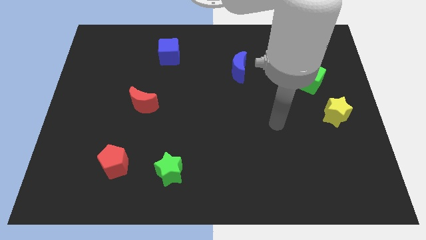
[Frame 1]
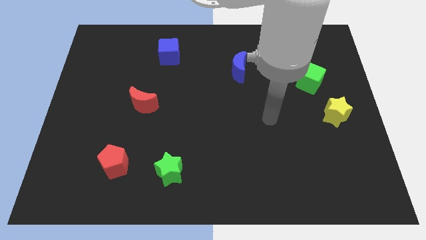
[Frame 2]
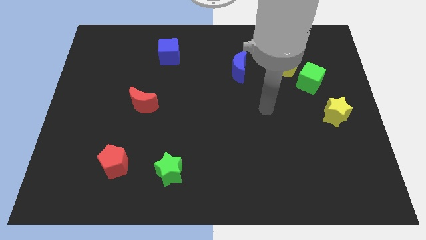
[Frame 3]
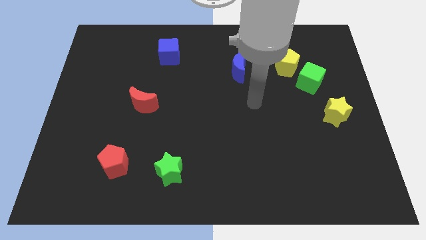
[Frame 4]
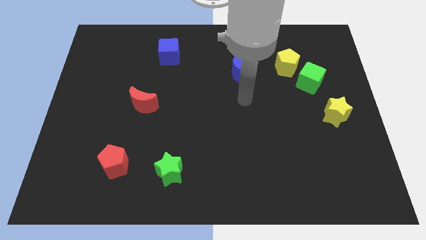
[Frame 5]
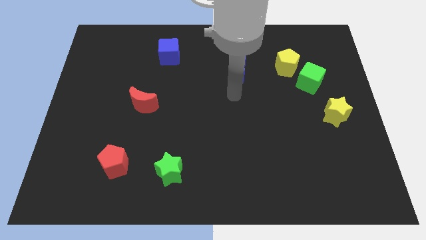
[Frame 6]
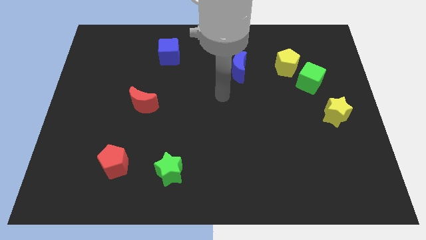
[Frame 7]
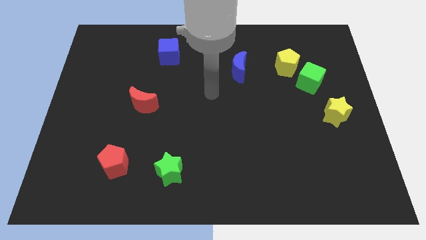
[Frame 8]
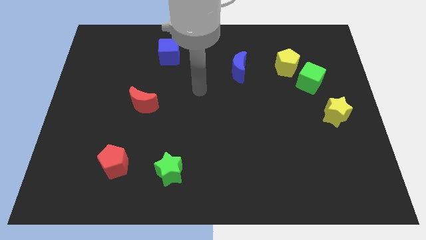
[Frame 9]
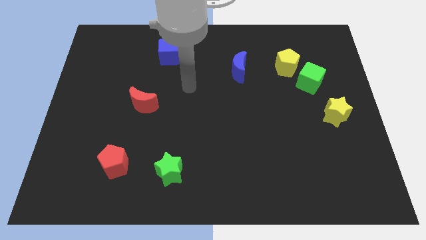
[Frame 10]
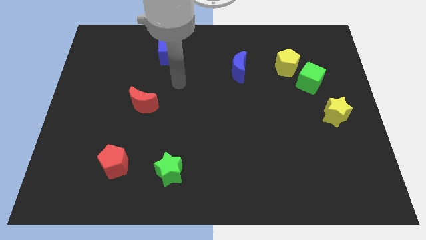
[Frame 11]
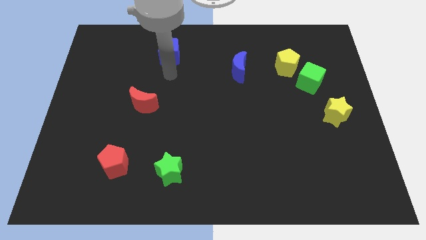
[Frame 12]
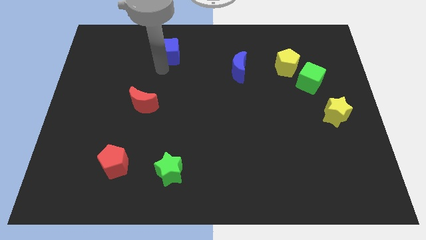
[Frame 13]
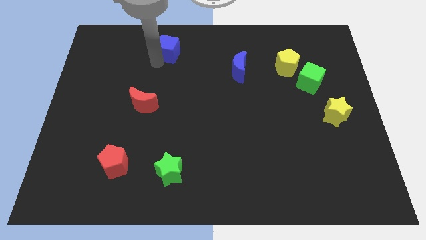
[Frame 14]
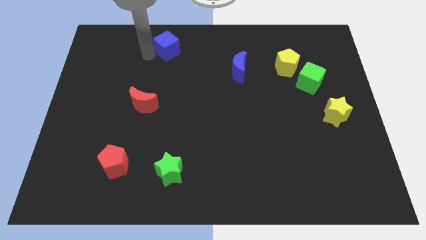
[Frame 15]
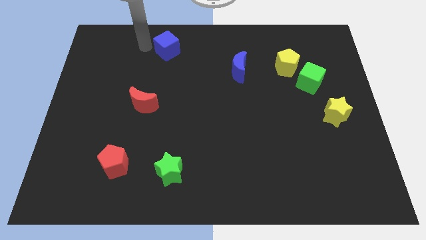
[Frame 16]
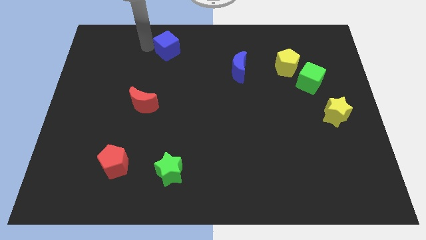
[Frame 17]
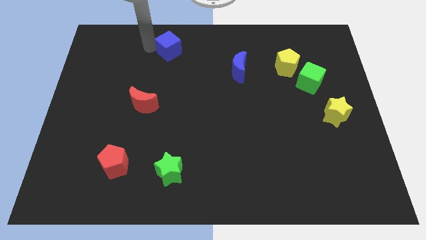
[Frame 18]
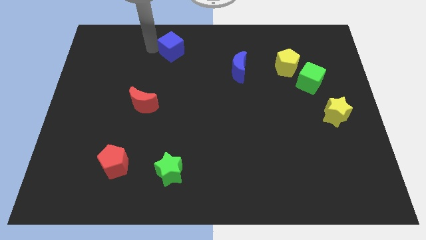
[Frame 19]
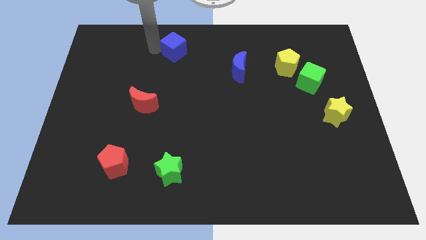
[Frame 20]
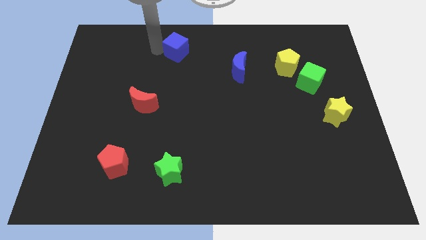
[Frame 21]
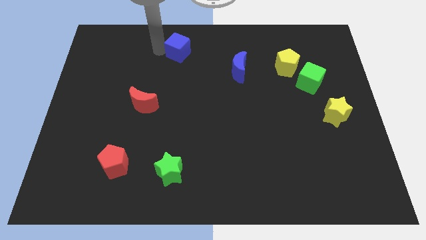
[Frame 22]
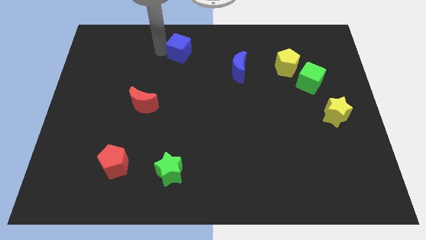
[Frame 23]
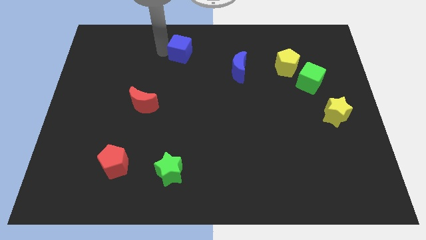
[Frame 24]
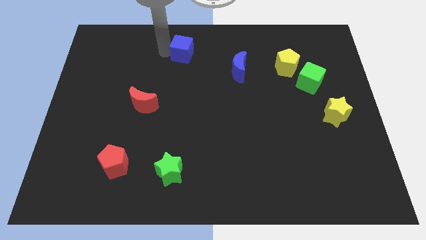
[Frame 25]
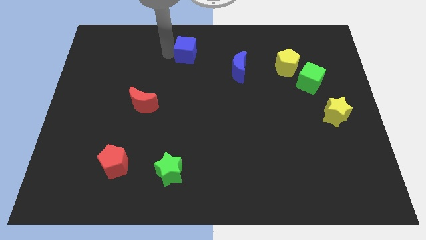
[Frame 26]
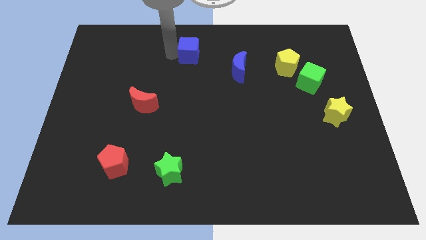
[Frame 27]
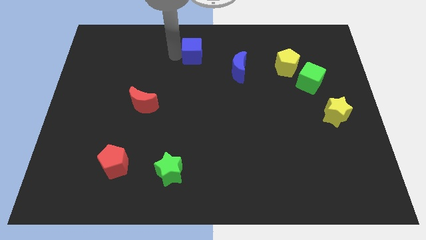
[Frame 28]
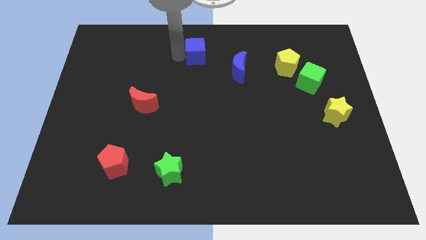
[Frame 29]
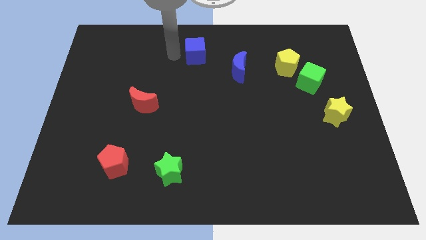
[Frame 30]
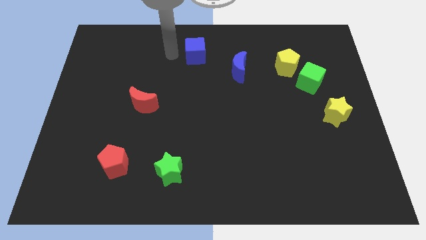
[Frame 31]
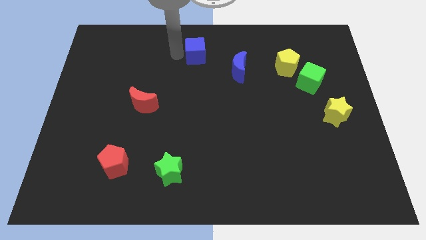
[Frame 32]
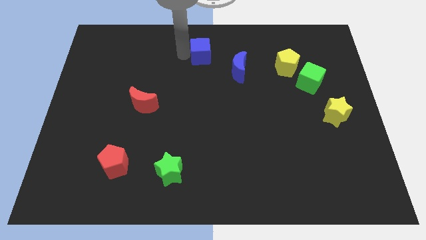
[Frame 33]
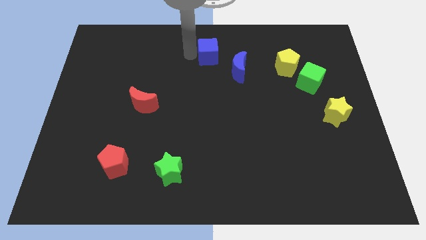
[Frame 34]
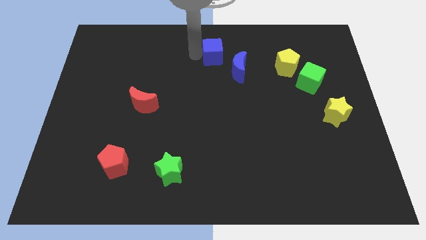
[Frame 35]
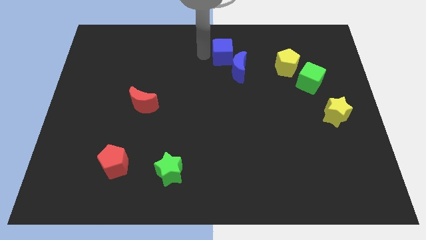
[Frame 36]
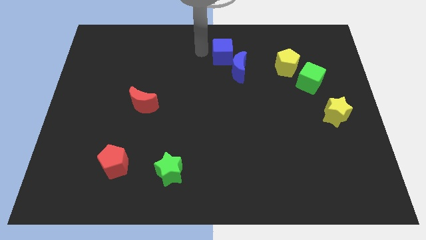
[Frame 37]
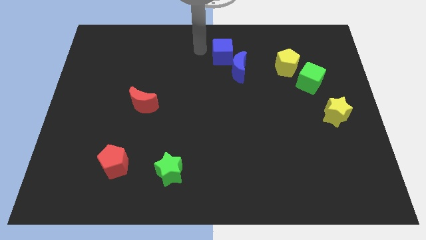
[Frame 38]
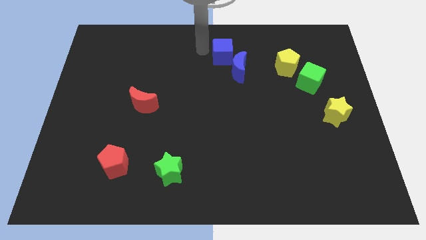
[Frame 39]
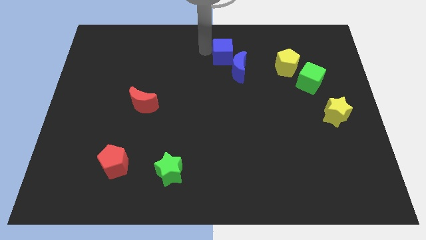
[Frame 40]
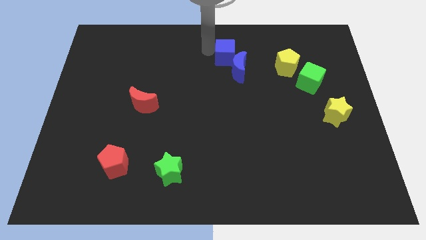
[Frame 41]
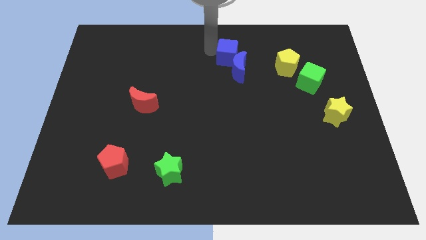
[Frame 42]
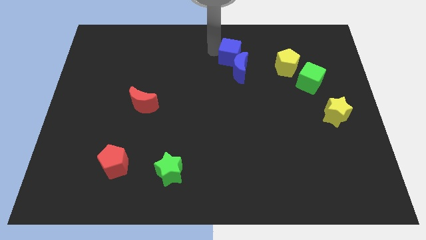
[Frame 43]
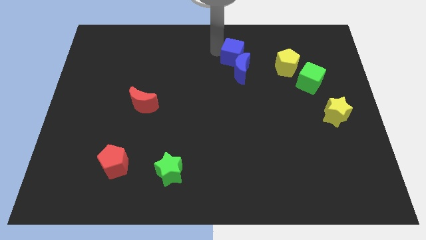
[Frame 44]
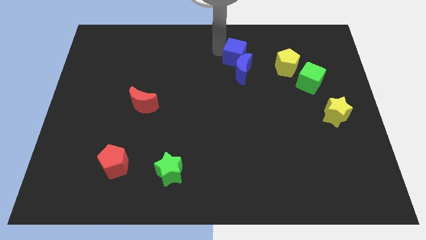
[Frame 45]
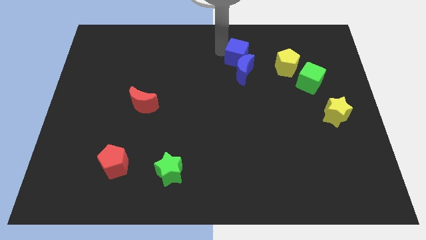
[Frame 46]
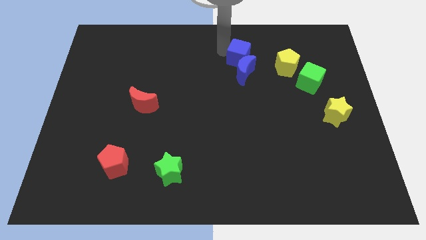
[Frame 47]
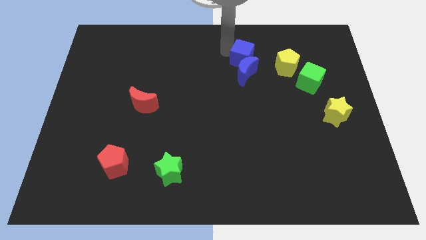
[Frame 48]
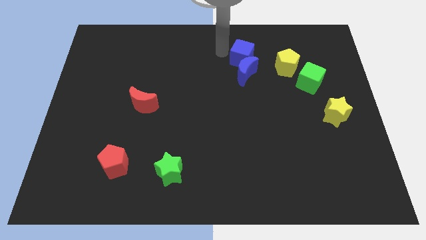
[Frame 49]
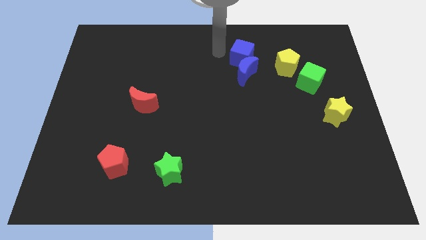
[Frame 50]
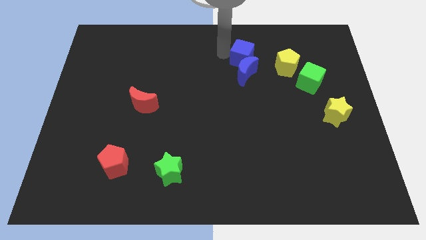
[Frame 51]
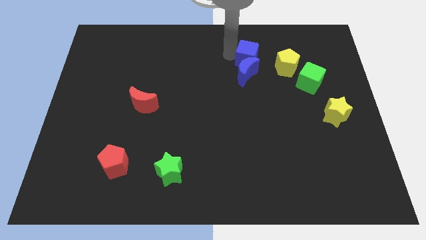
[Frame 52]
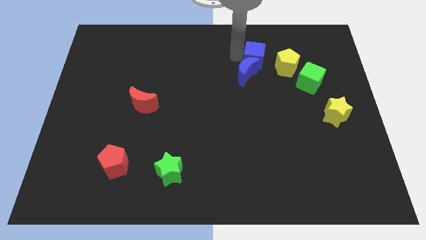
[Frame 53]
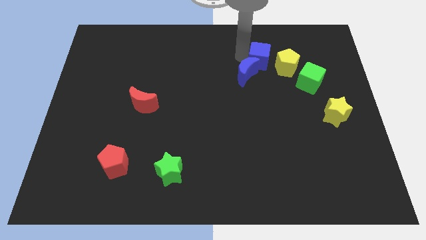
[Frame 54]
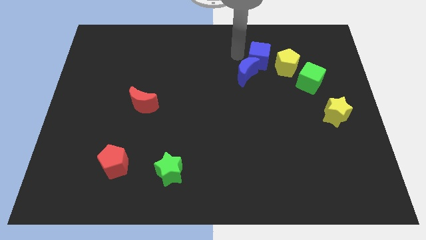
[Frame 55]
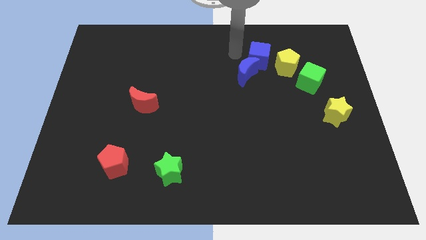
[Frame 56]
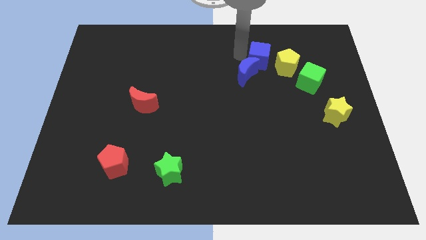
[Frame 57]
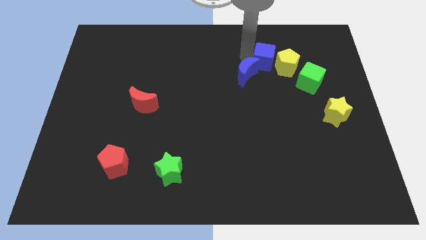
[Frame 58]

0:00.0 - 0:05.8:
slide the blue cube to the yellow pentagon
